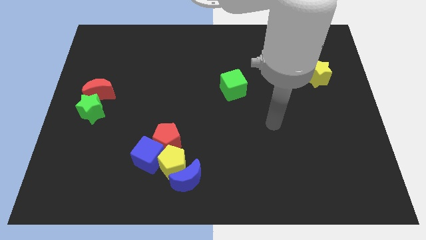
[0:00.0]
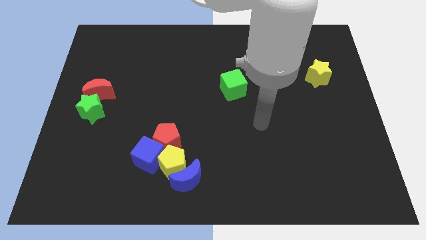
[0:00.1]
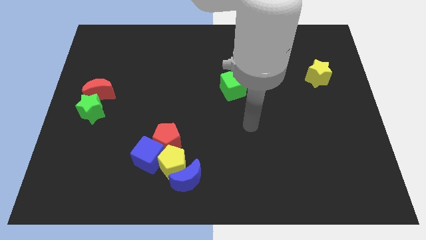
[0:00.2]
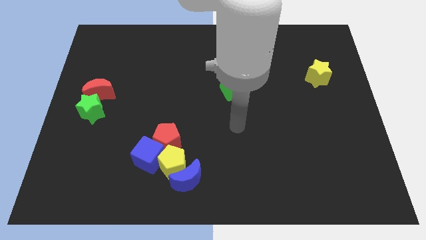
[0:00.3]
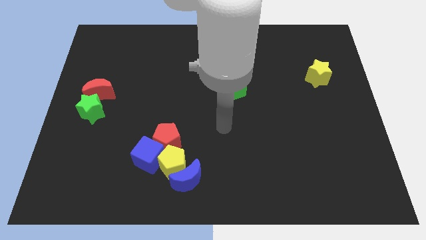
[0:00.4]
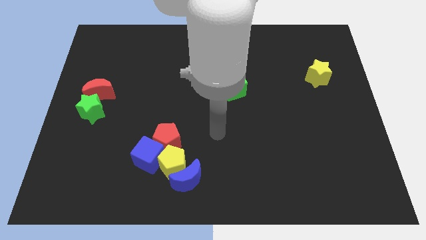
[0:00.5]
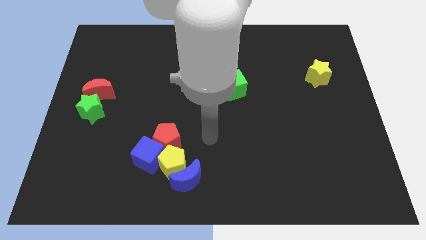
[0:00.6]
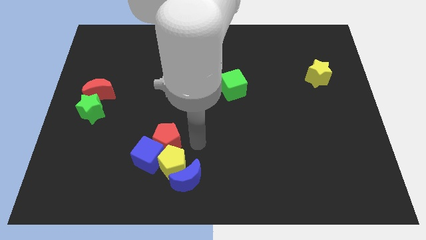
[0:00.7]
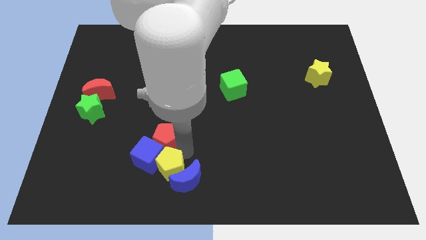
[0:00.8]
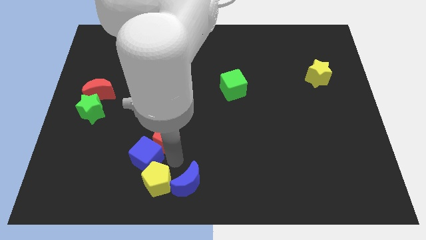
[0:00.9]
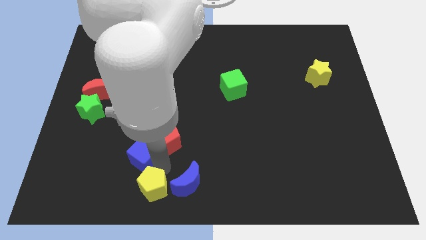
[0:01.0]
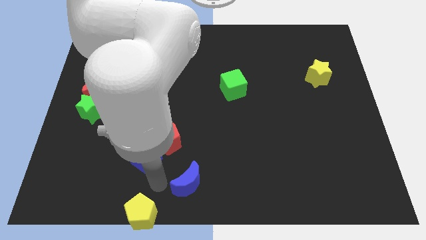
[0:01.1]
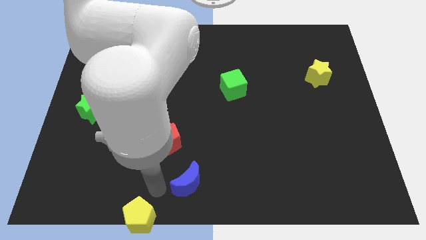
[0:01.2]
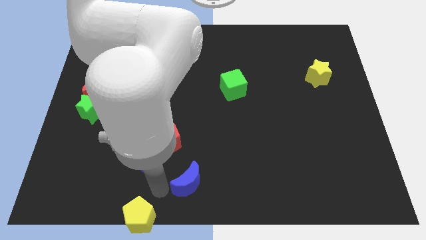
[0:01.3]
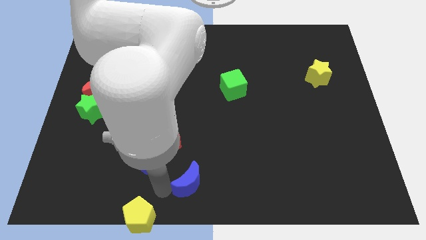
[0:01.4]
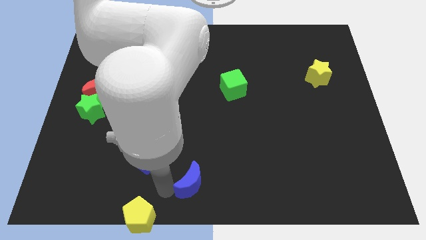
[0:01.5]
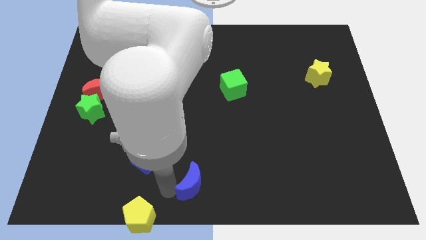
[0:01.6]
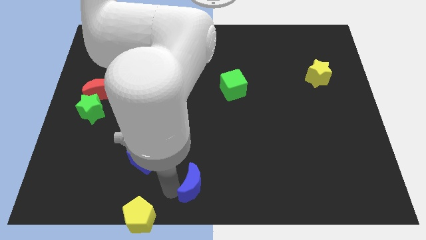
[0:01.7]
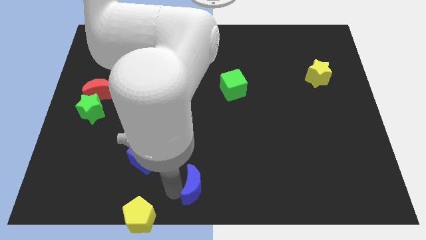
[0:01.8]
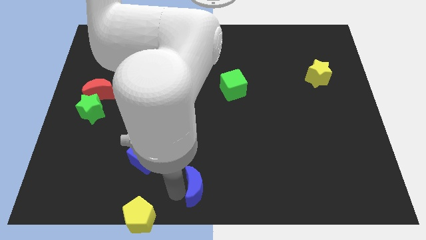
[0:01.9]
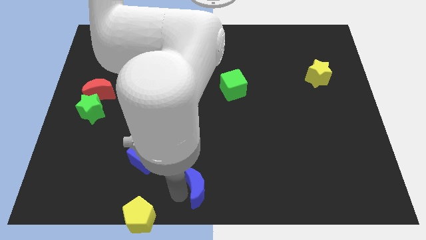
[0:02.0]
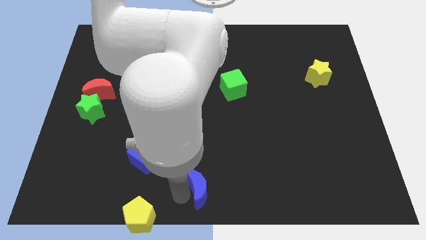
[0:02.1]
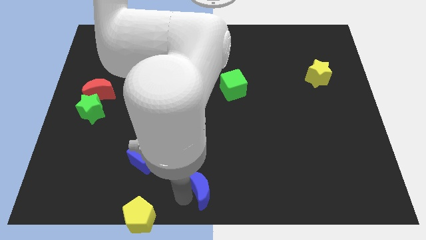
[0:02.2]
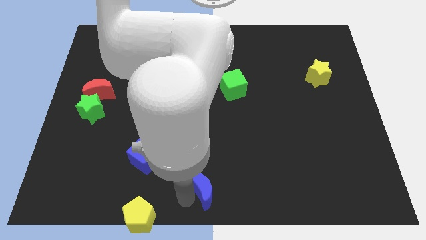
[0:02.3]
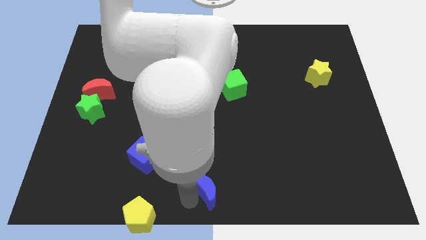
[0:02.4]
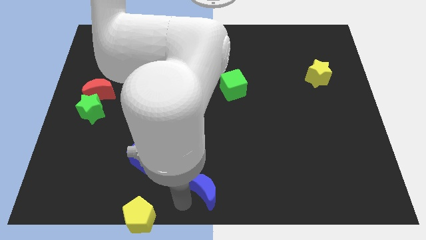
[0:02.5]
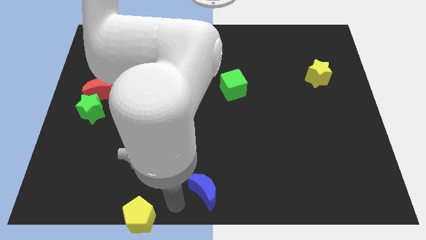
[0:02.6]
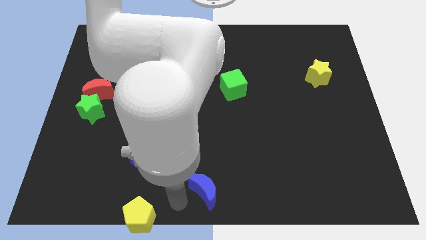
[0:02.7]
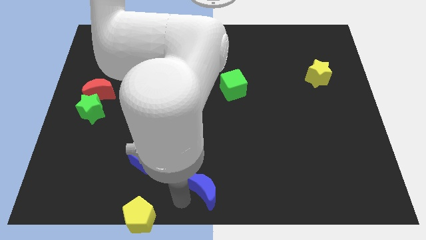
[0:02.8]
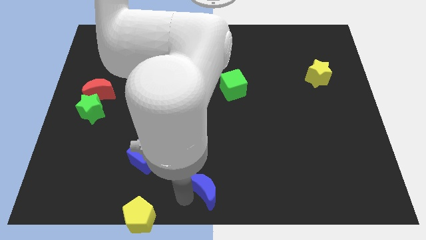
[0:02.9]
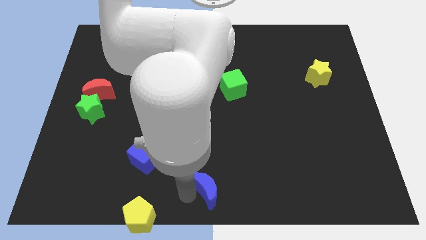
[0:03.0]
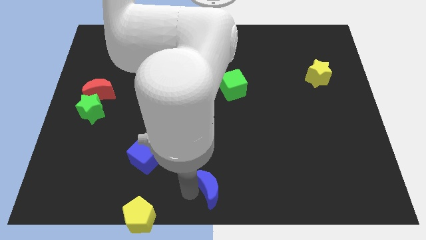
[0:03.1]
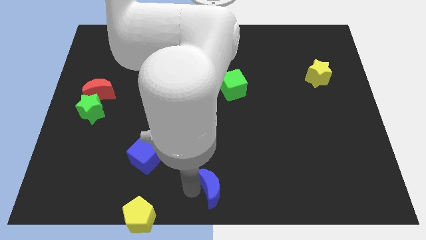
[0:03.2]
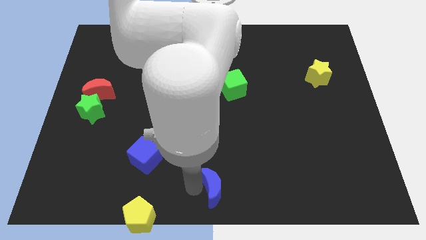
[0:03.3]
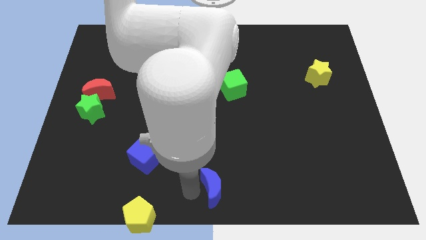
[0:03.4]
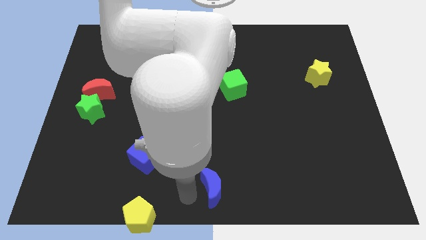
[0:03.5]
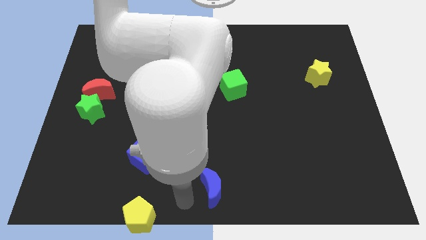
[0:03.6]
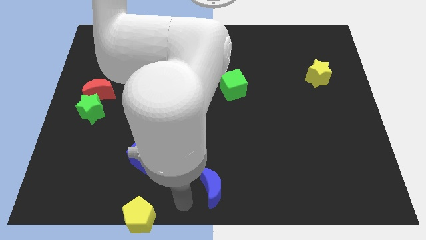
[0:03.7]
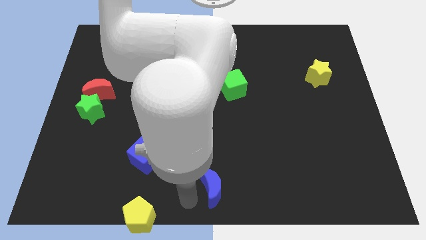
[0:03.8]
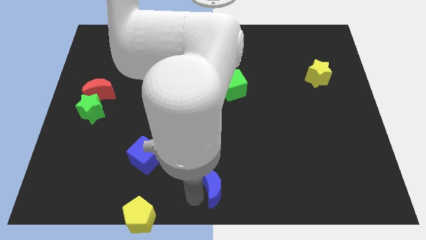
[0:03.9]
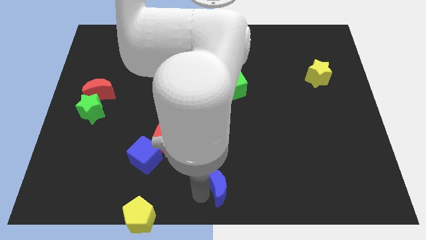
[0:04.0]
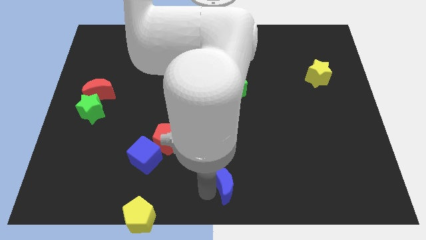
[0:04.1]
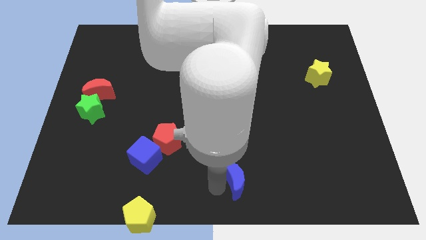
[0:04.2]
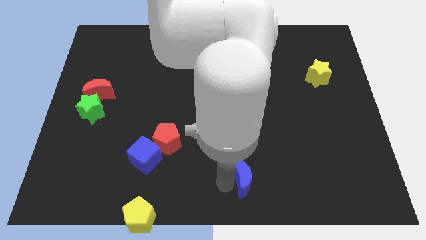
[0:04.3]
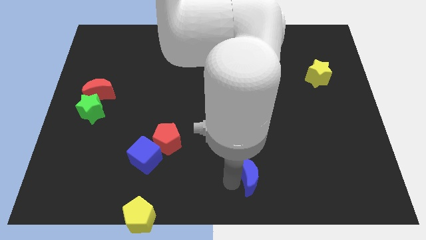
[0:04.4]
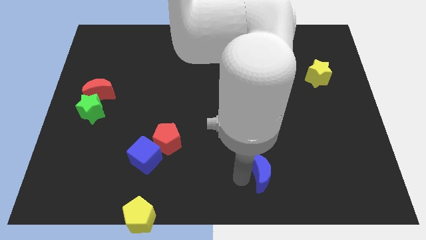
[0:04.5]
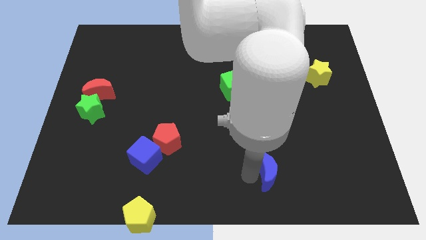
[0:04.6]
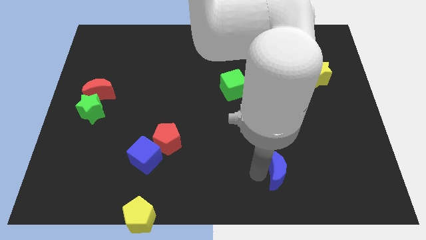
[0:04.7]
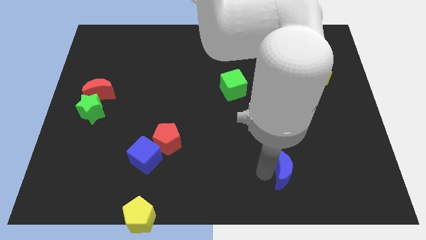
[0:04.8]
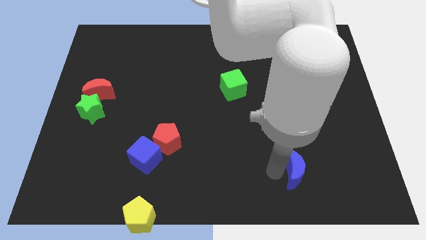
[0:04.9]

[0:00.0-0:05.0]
slide the blue moon to the right

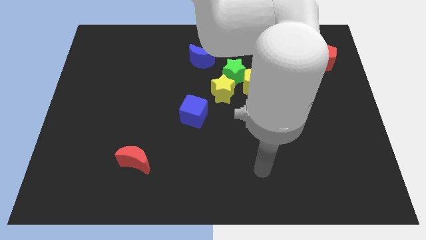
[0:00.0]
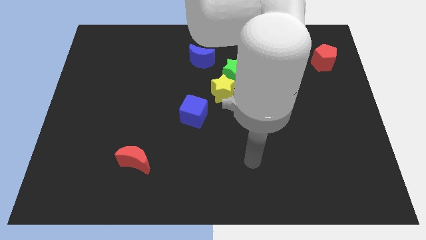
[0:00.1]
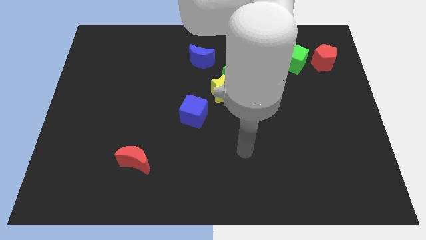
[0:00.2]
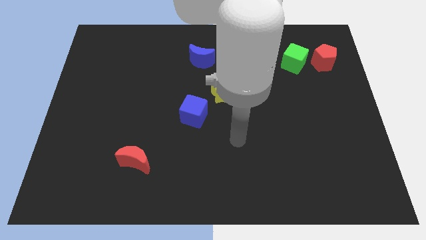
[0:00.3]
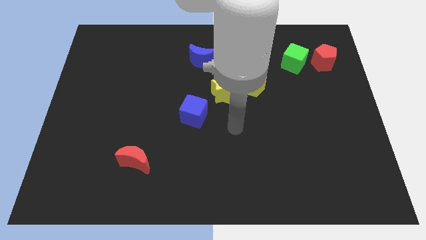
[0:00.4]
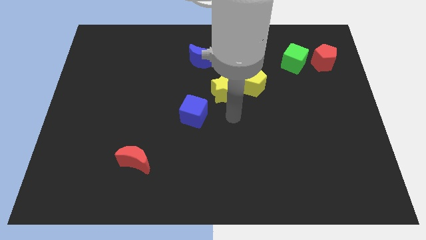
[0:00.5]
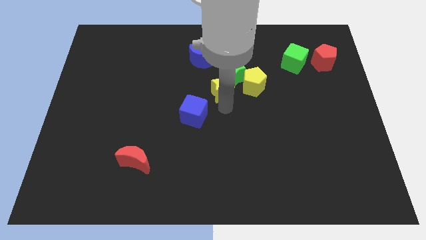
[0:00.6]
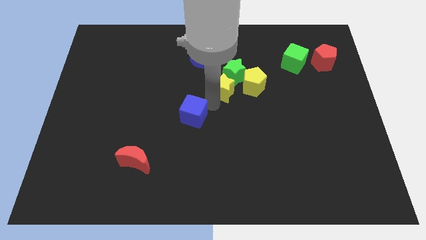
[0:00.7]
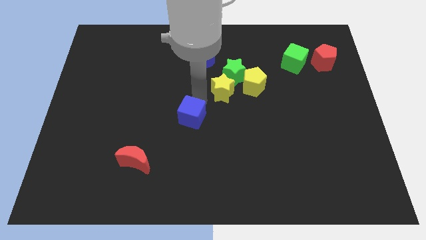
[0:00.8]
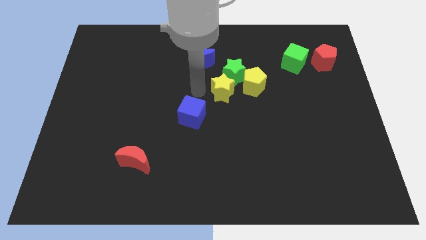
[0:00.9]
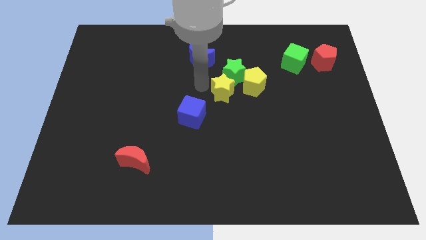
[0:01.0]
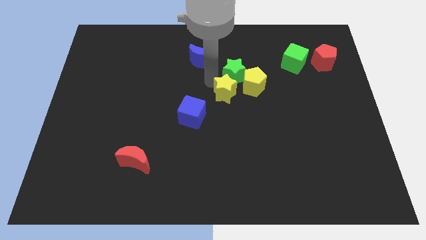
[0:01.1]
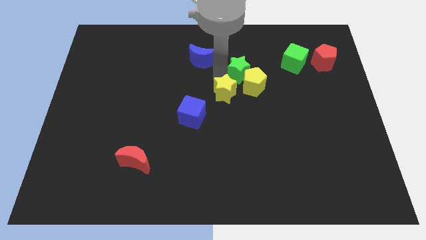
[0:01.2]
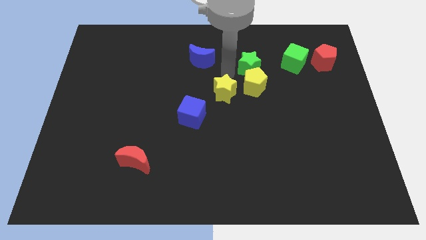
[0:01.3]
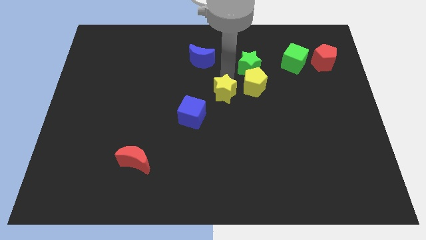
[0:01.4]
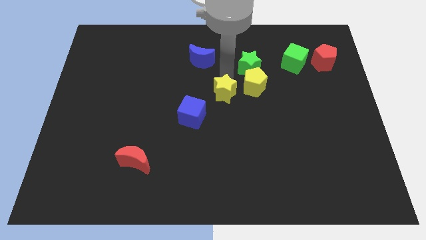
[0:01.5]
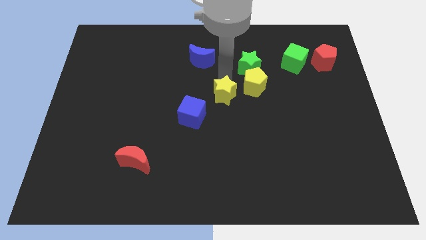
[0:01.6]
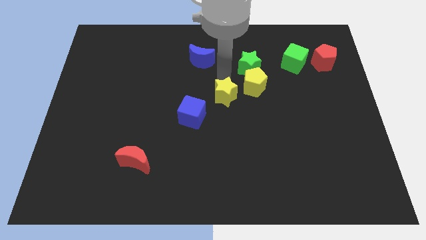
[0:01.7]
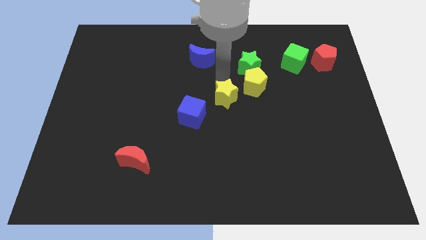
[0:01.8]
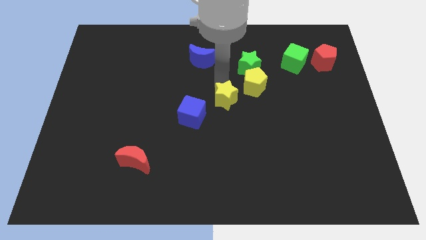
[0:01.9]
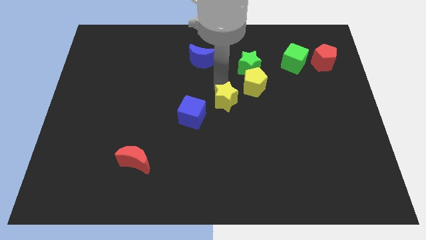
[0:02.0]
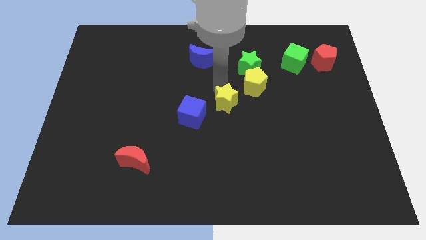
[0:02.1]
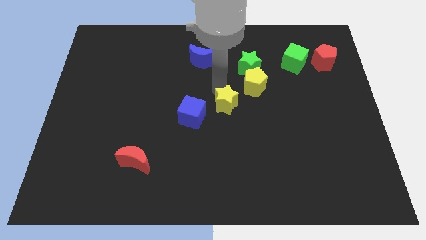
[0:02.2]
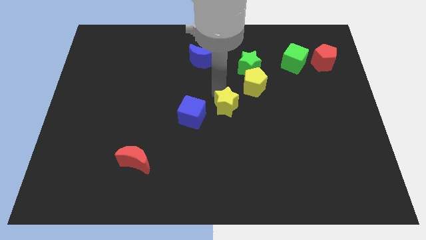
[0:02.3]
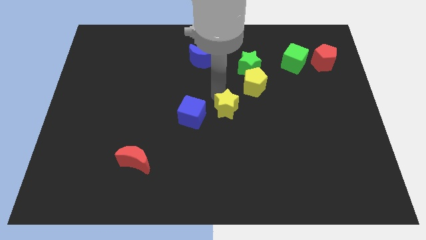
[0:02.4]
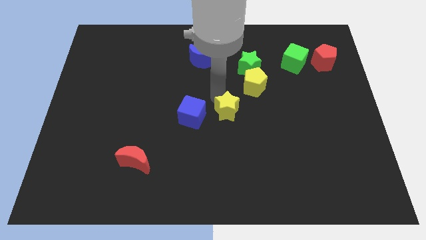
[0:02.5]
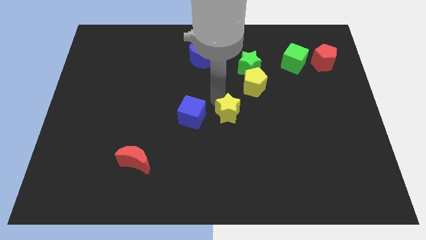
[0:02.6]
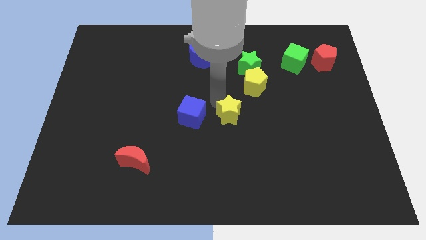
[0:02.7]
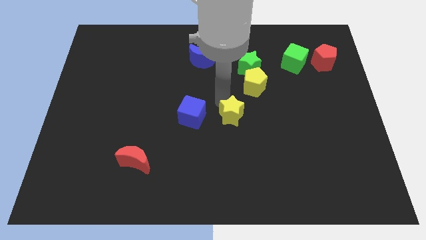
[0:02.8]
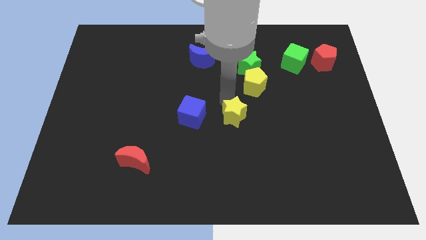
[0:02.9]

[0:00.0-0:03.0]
slide the yellow star slightly downwards
